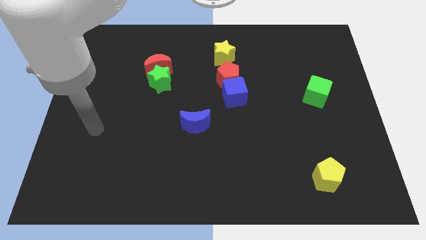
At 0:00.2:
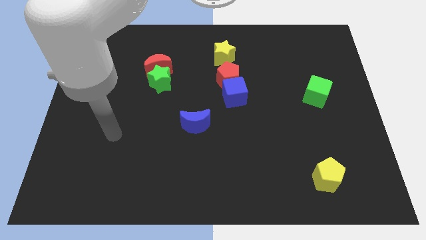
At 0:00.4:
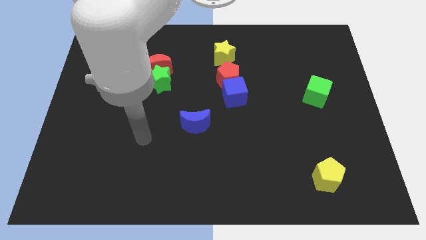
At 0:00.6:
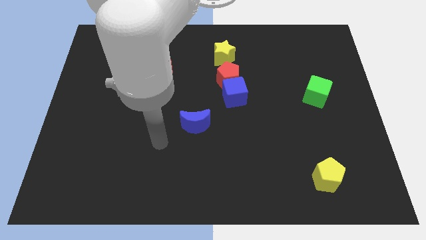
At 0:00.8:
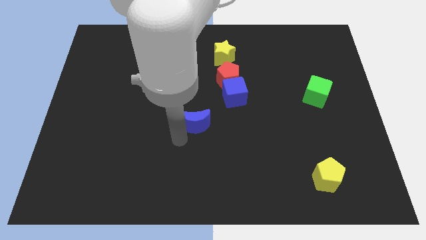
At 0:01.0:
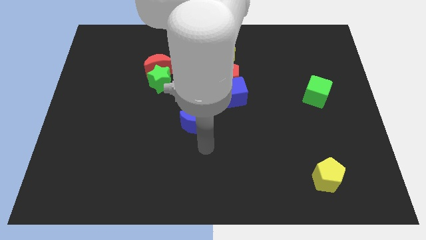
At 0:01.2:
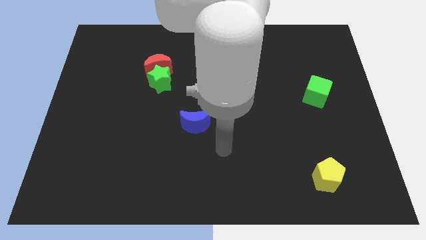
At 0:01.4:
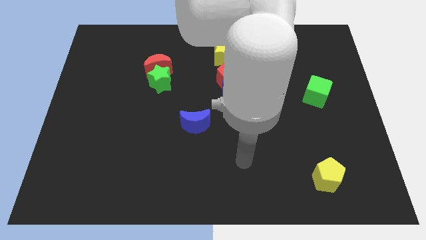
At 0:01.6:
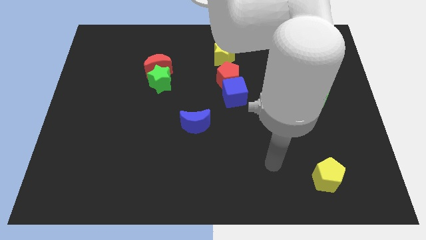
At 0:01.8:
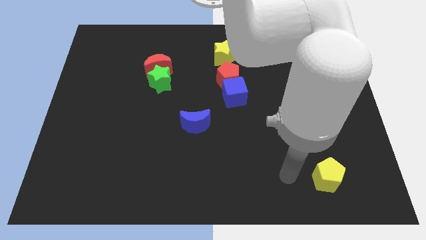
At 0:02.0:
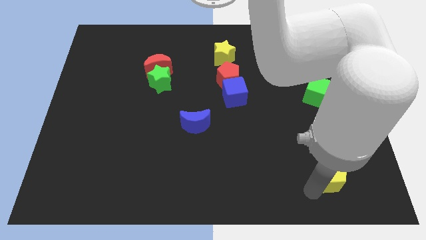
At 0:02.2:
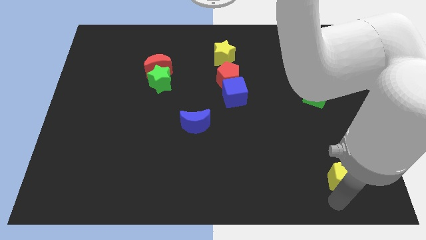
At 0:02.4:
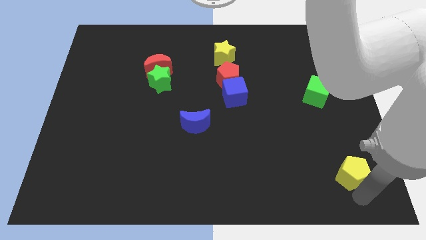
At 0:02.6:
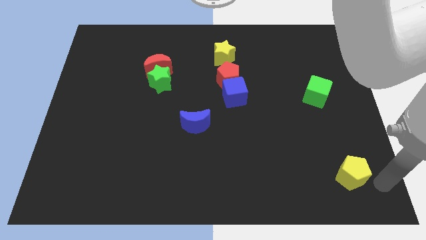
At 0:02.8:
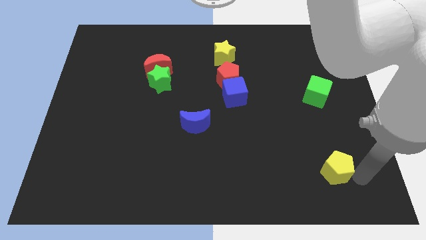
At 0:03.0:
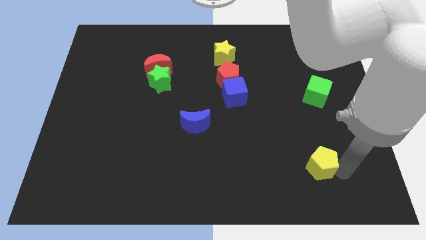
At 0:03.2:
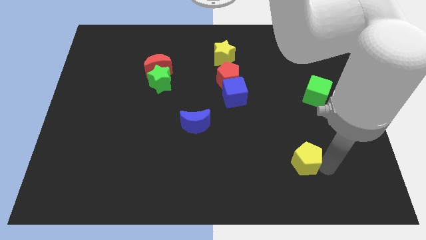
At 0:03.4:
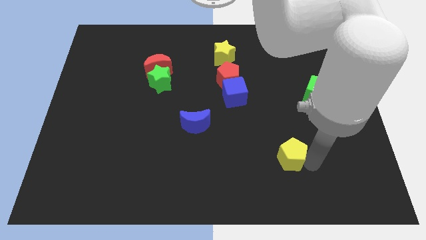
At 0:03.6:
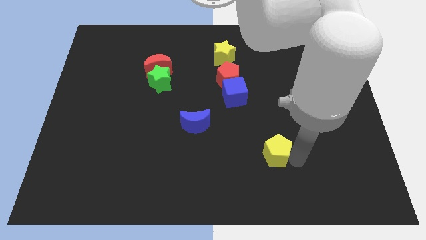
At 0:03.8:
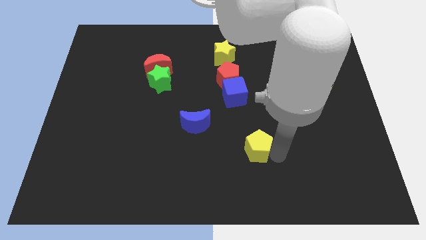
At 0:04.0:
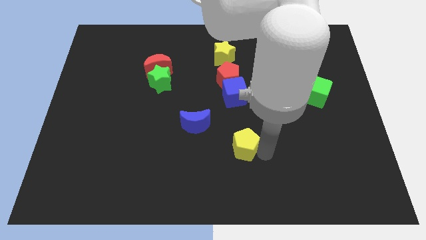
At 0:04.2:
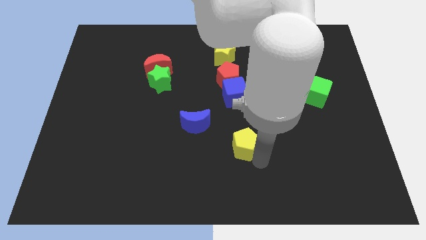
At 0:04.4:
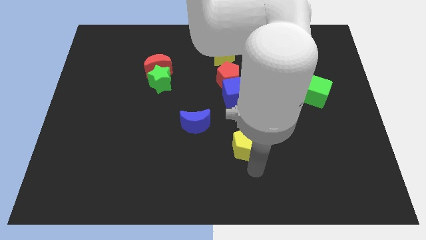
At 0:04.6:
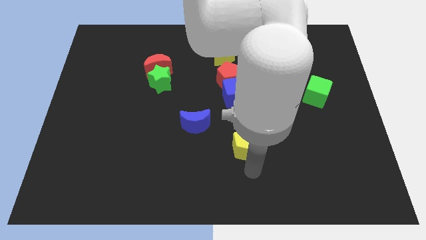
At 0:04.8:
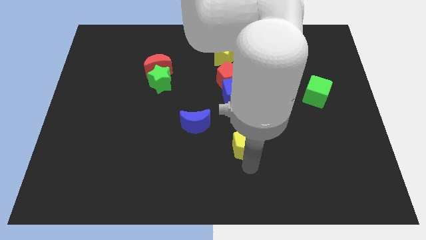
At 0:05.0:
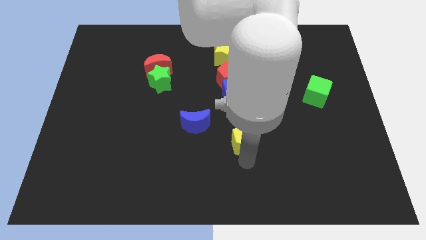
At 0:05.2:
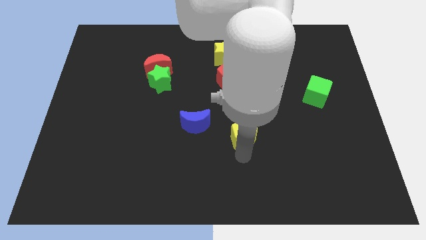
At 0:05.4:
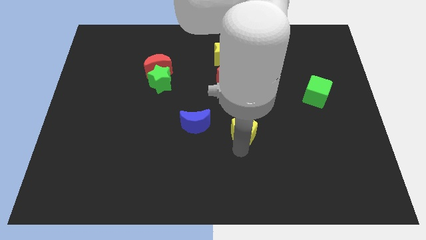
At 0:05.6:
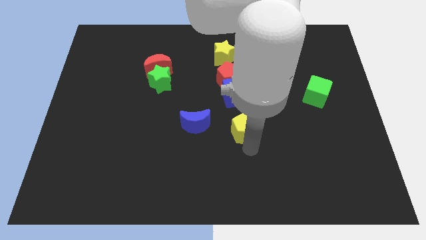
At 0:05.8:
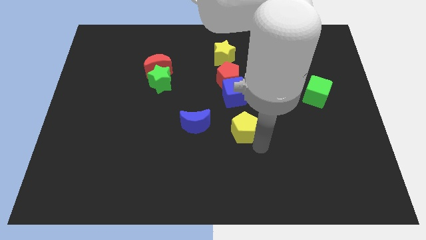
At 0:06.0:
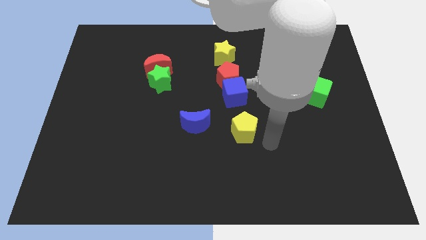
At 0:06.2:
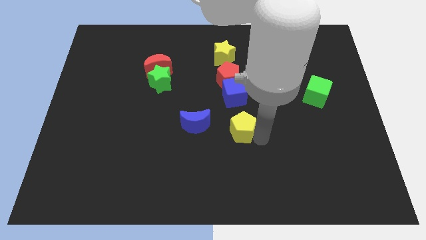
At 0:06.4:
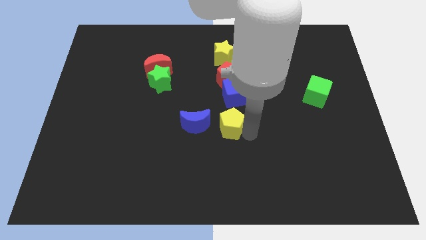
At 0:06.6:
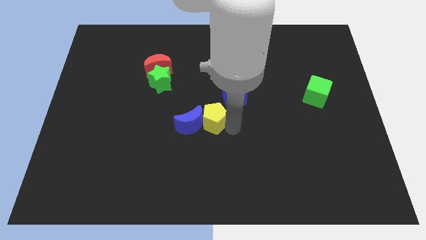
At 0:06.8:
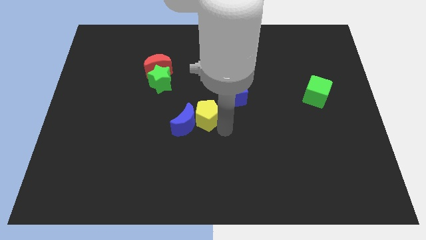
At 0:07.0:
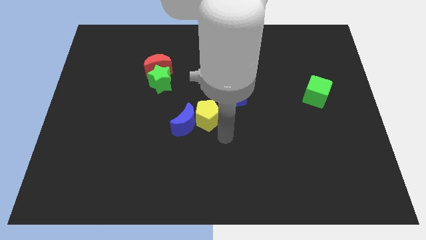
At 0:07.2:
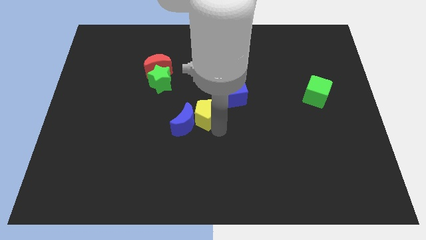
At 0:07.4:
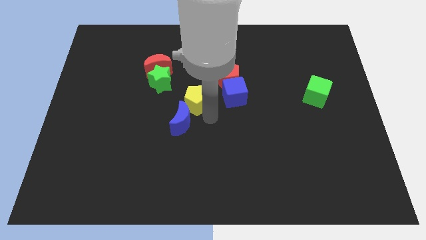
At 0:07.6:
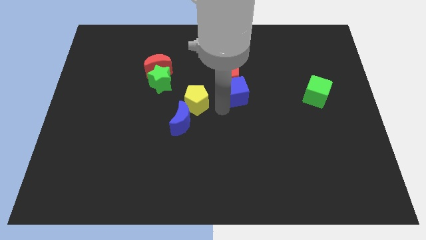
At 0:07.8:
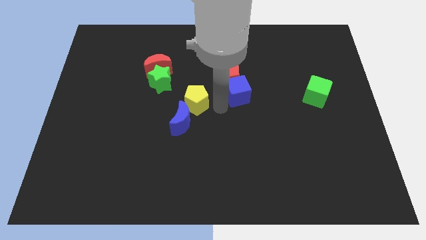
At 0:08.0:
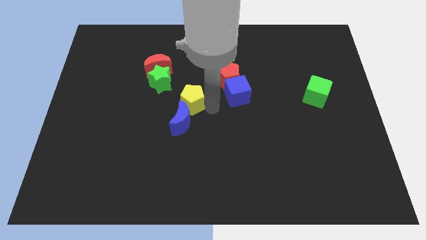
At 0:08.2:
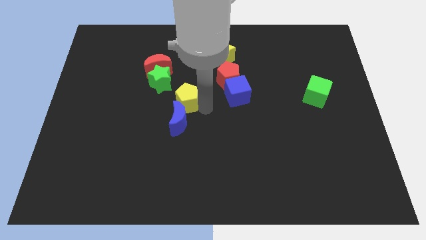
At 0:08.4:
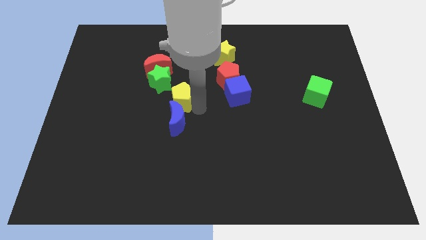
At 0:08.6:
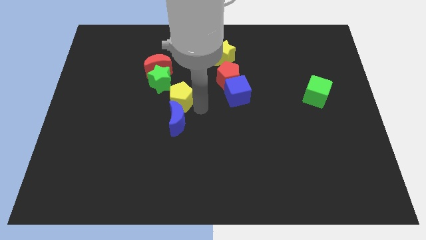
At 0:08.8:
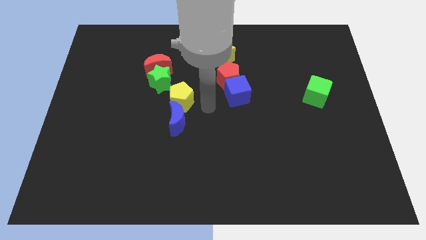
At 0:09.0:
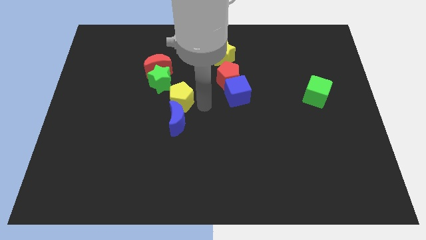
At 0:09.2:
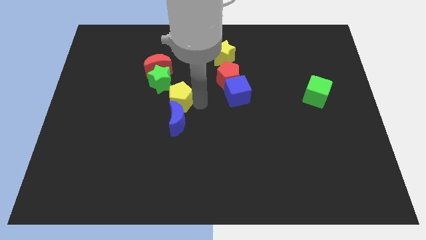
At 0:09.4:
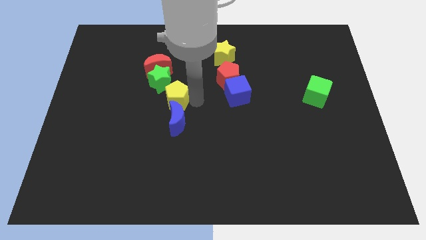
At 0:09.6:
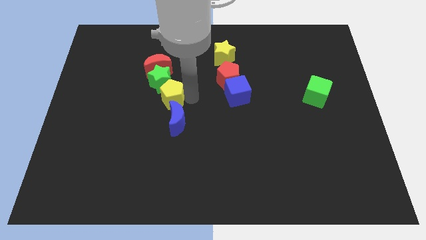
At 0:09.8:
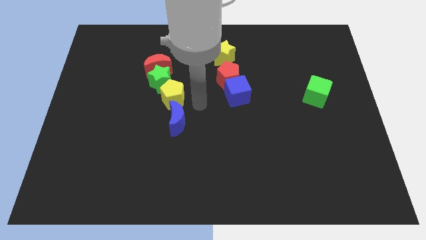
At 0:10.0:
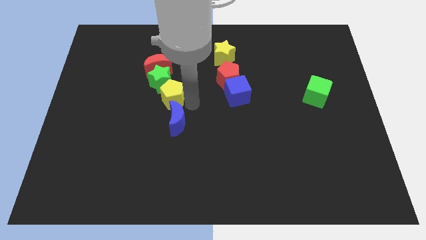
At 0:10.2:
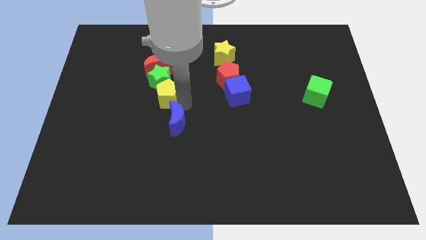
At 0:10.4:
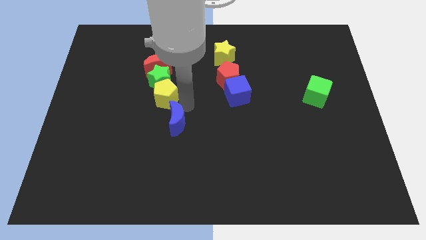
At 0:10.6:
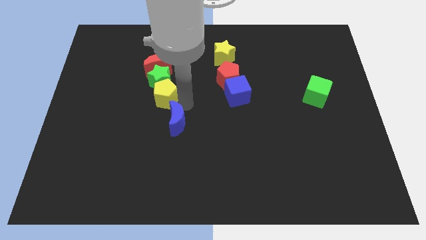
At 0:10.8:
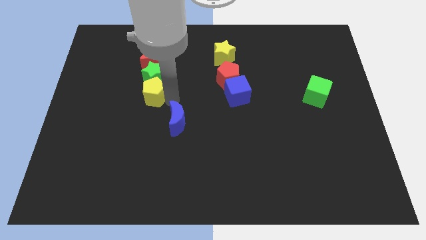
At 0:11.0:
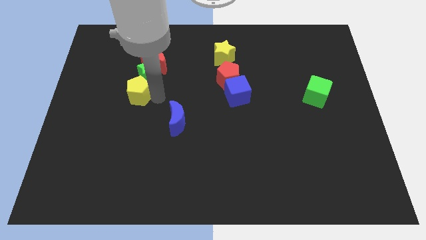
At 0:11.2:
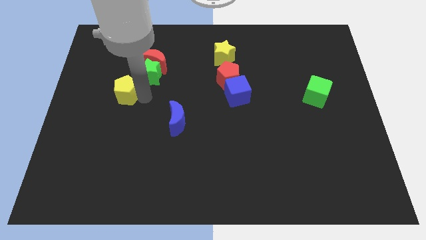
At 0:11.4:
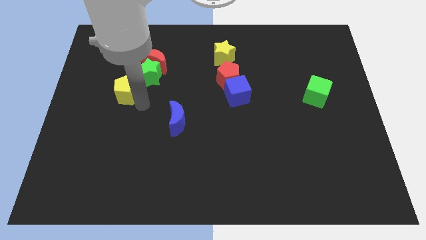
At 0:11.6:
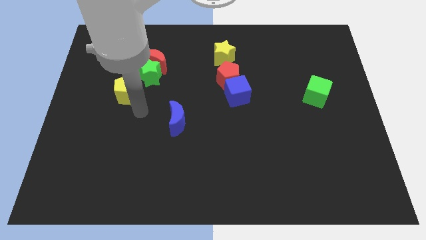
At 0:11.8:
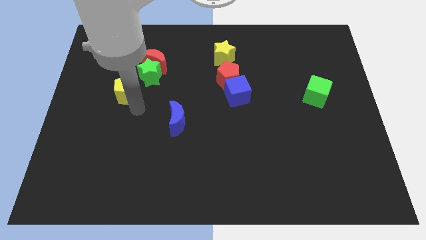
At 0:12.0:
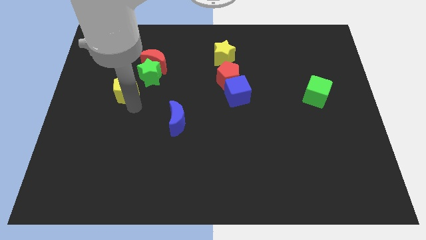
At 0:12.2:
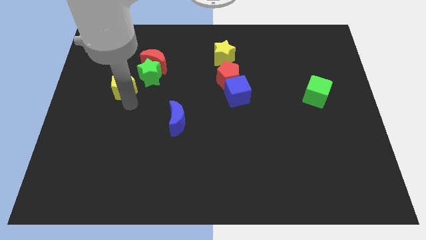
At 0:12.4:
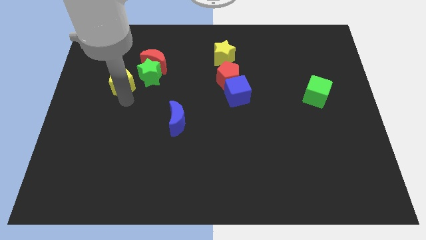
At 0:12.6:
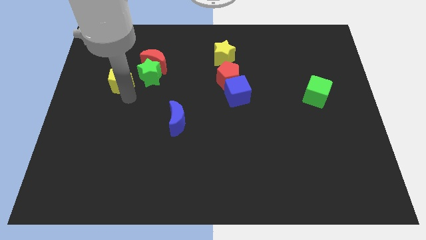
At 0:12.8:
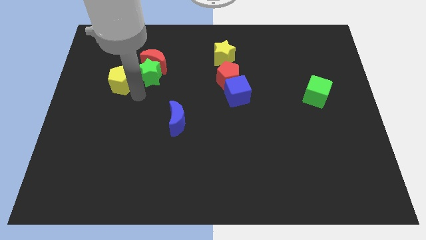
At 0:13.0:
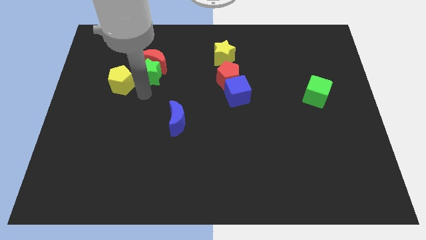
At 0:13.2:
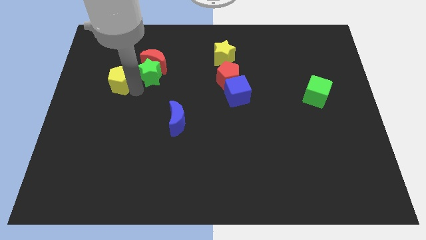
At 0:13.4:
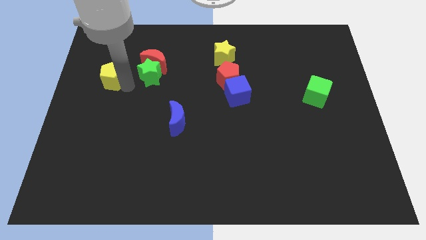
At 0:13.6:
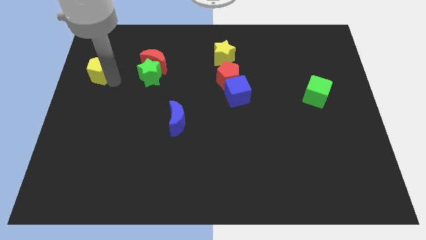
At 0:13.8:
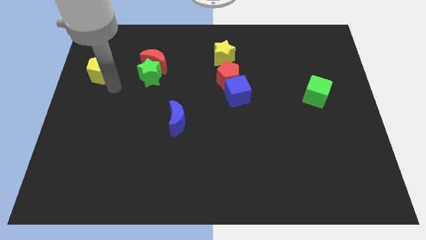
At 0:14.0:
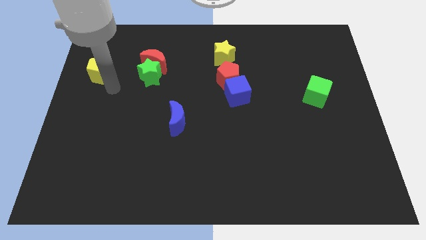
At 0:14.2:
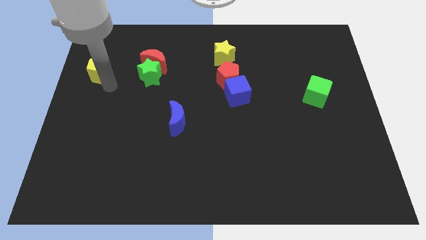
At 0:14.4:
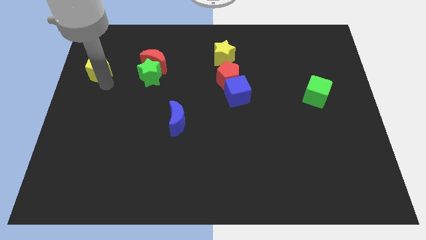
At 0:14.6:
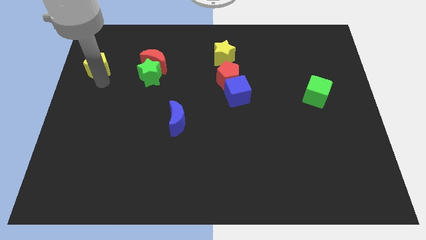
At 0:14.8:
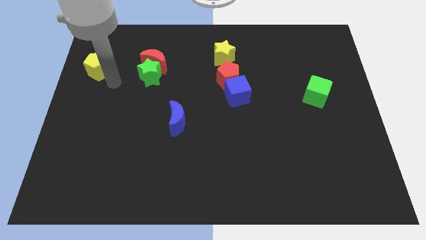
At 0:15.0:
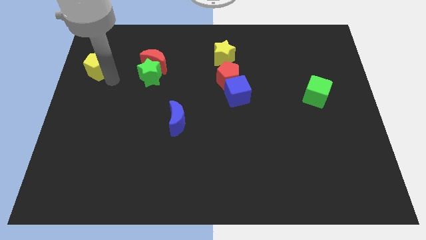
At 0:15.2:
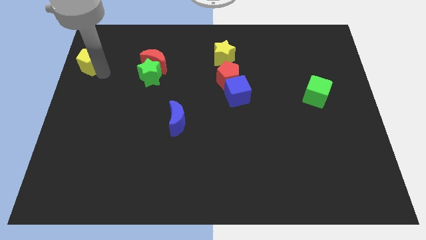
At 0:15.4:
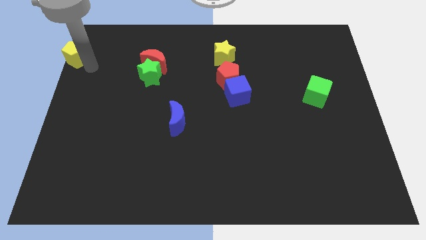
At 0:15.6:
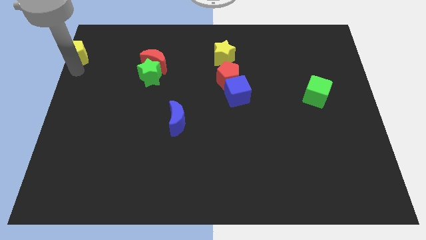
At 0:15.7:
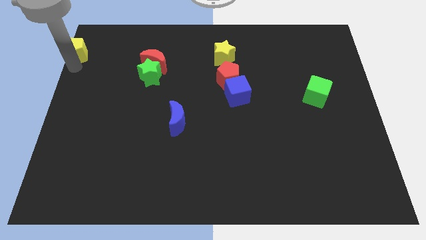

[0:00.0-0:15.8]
move the yellow pentagon to the top left corner
